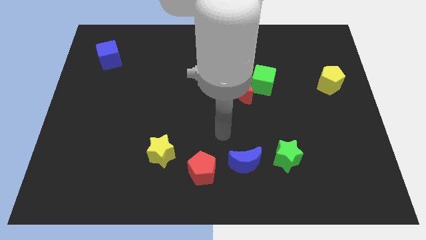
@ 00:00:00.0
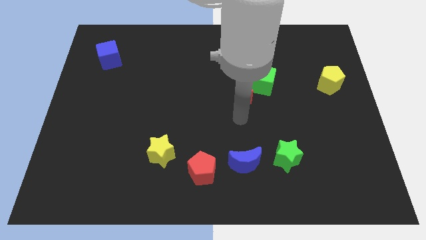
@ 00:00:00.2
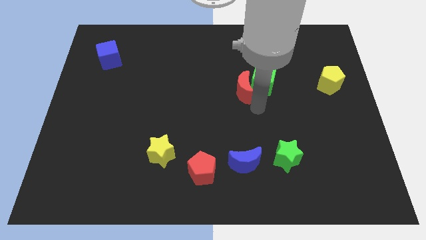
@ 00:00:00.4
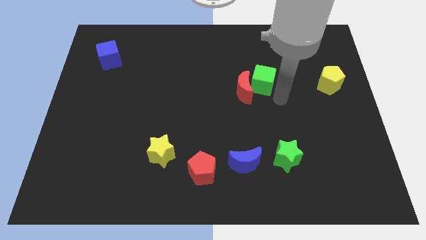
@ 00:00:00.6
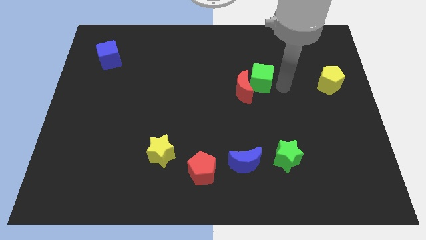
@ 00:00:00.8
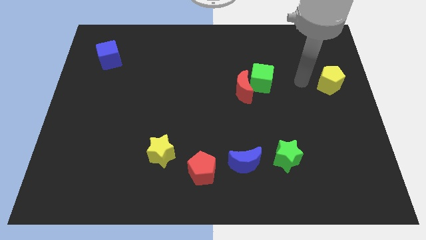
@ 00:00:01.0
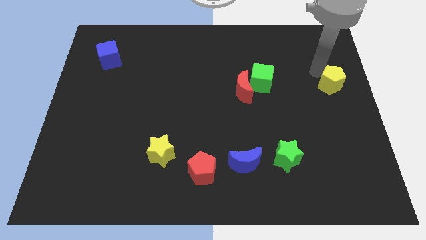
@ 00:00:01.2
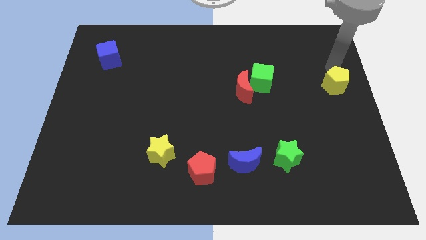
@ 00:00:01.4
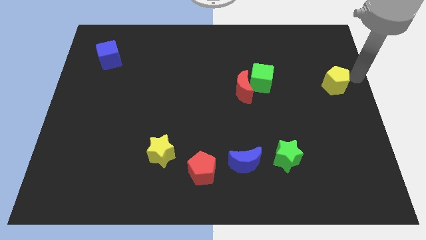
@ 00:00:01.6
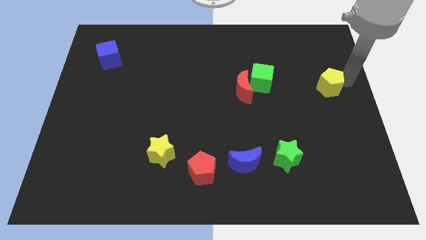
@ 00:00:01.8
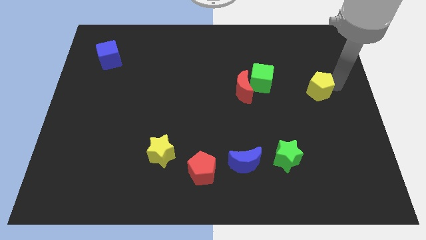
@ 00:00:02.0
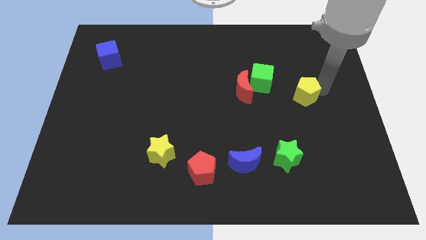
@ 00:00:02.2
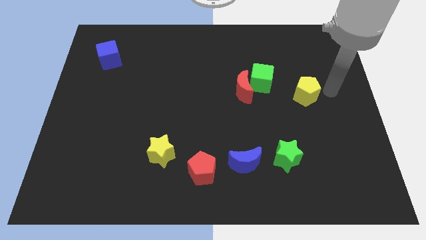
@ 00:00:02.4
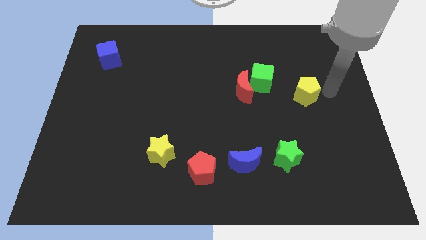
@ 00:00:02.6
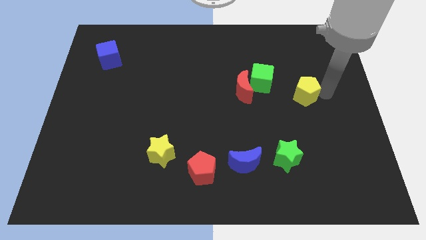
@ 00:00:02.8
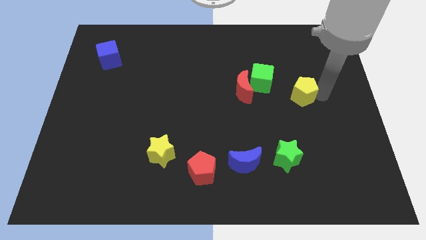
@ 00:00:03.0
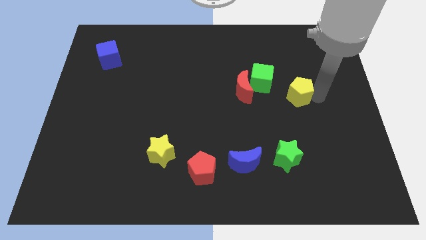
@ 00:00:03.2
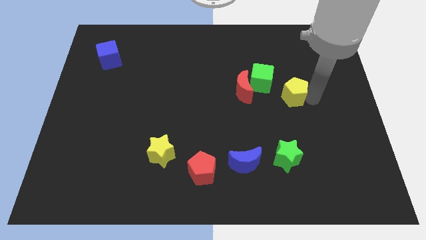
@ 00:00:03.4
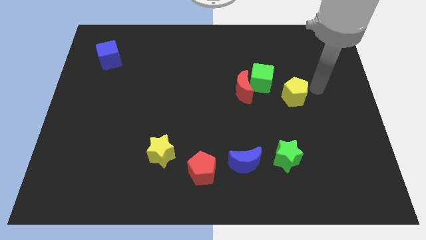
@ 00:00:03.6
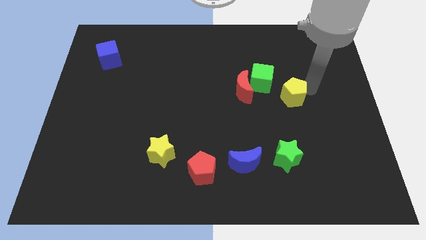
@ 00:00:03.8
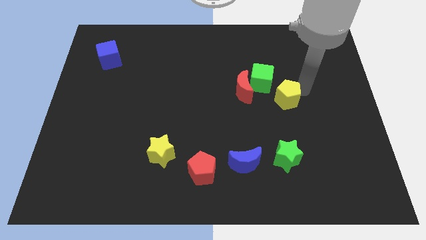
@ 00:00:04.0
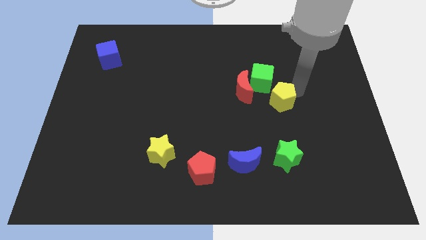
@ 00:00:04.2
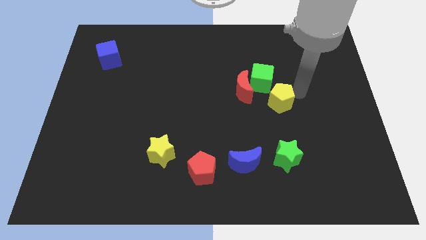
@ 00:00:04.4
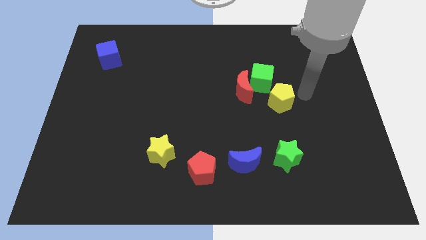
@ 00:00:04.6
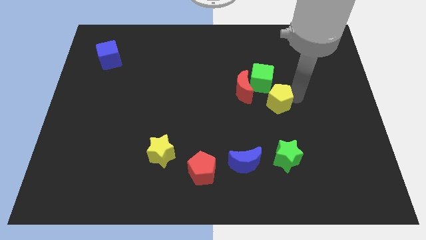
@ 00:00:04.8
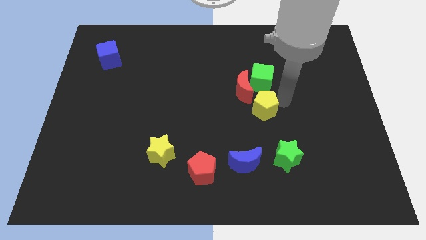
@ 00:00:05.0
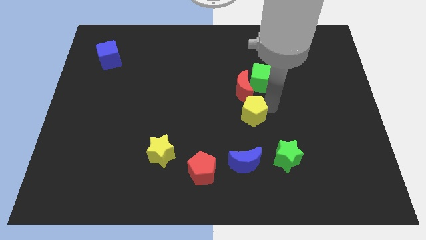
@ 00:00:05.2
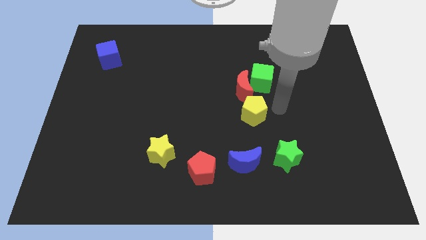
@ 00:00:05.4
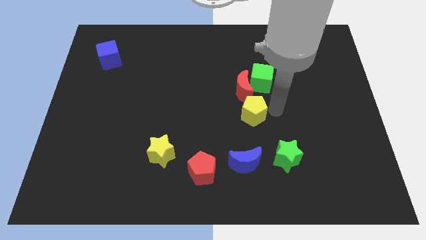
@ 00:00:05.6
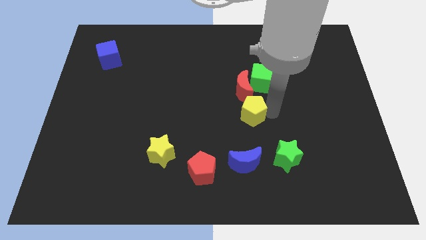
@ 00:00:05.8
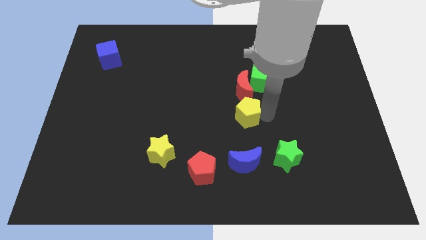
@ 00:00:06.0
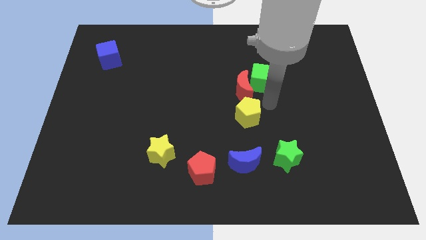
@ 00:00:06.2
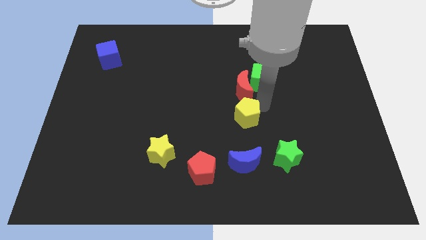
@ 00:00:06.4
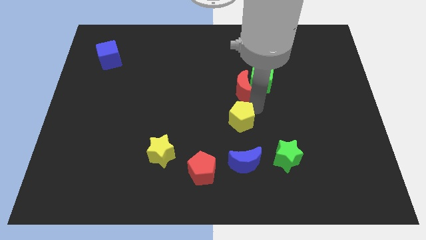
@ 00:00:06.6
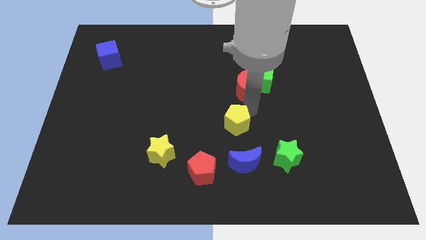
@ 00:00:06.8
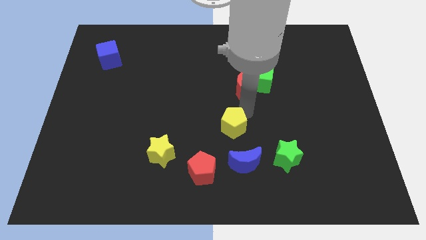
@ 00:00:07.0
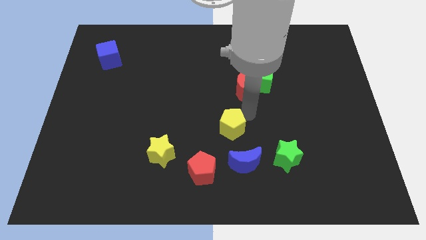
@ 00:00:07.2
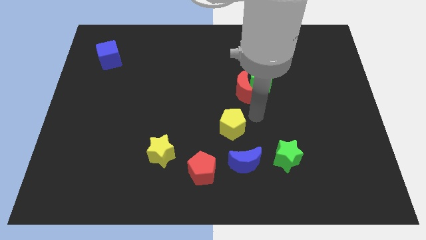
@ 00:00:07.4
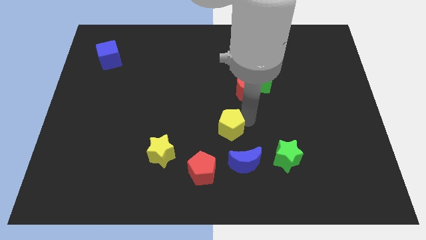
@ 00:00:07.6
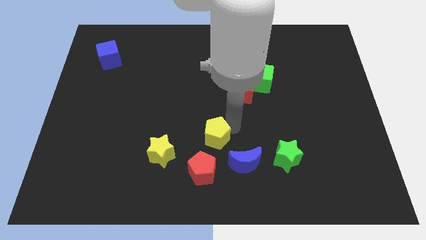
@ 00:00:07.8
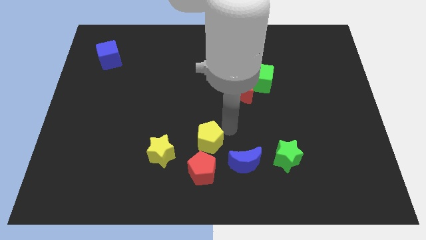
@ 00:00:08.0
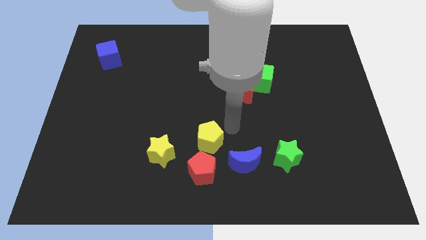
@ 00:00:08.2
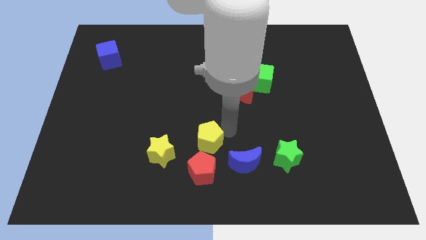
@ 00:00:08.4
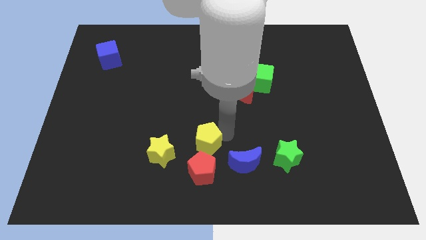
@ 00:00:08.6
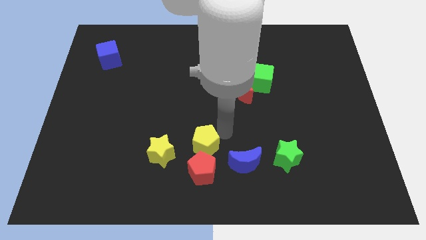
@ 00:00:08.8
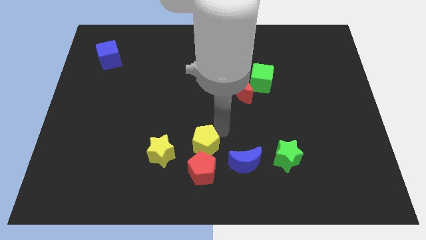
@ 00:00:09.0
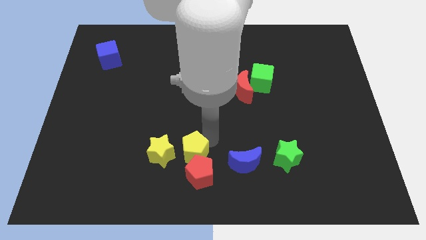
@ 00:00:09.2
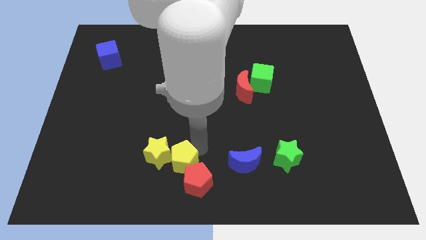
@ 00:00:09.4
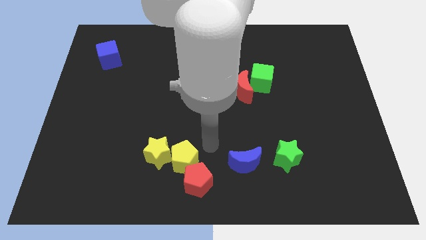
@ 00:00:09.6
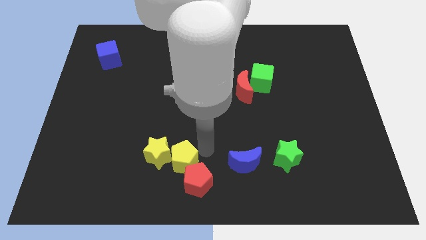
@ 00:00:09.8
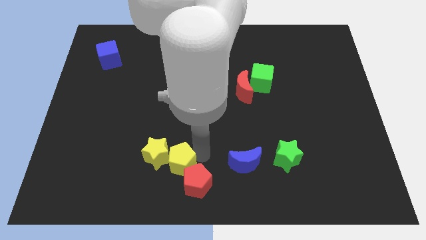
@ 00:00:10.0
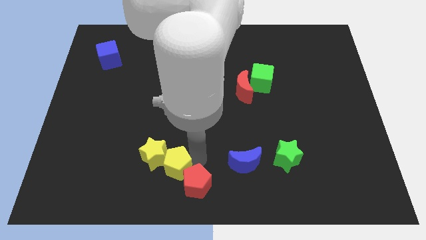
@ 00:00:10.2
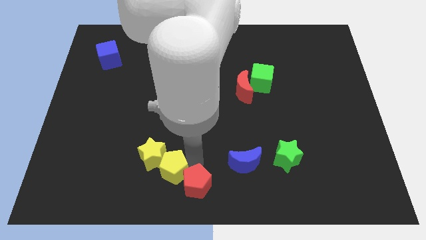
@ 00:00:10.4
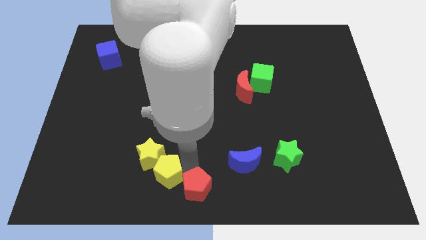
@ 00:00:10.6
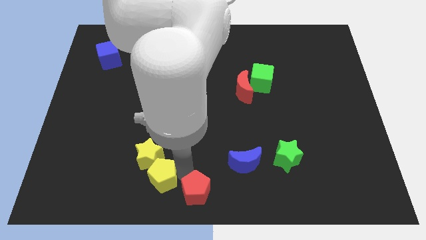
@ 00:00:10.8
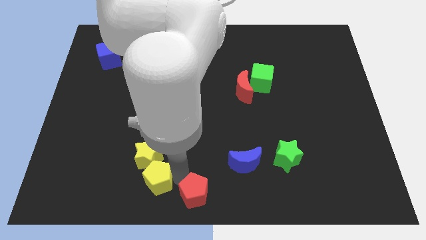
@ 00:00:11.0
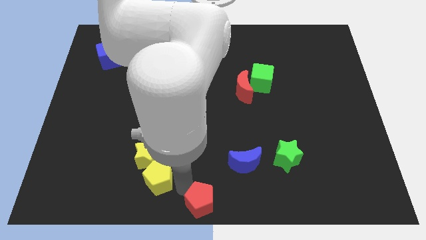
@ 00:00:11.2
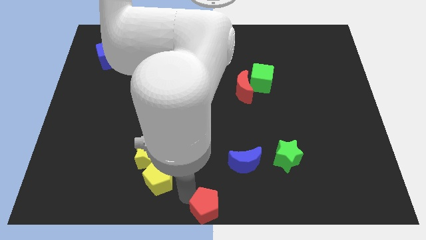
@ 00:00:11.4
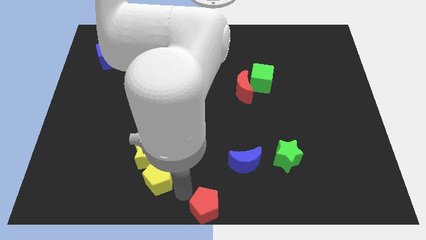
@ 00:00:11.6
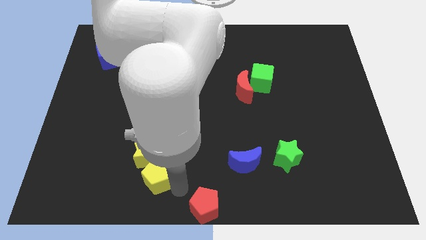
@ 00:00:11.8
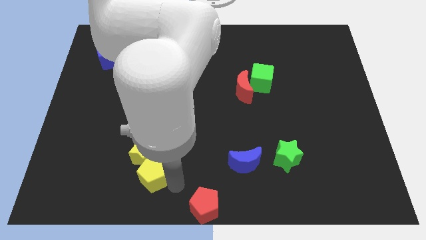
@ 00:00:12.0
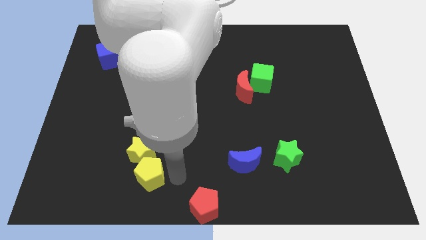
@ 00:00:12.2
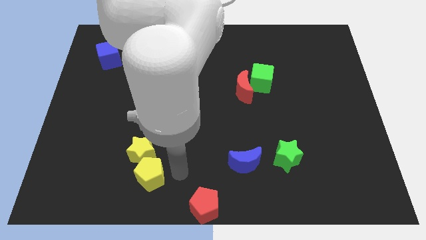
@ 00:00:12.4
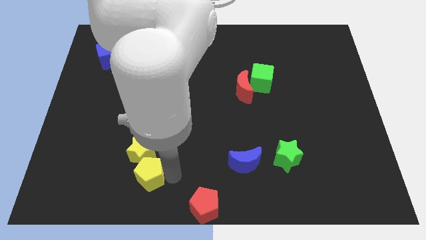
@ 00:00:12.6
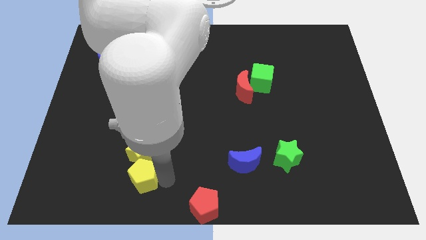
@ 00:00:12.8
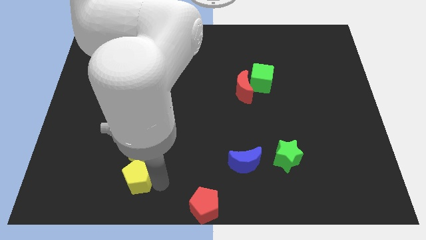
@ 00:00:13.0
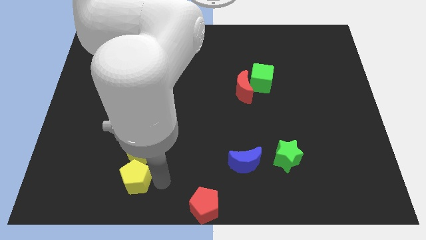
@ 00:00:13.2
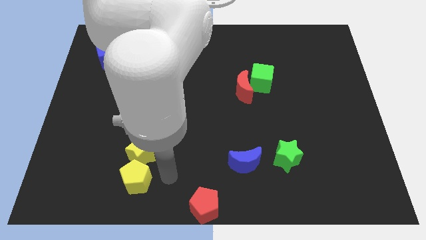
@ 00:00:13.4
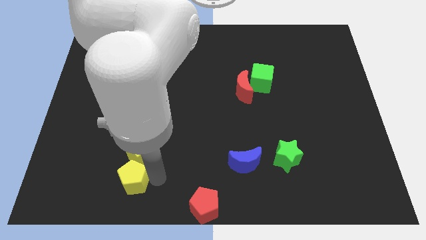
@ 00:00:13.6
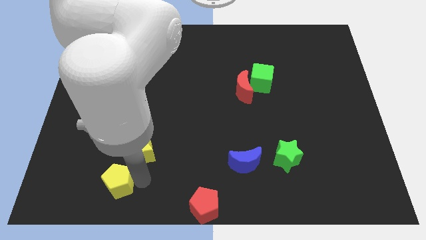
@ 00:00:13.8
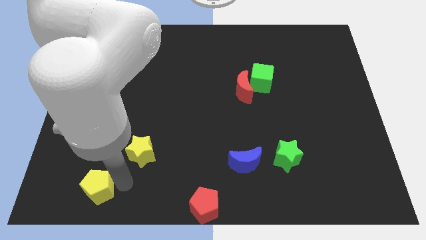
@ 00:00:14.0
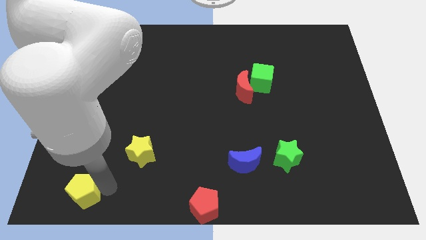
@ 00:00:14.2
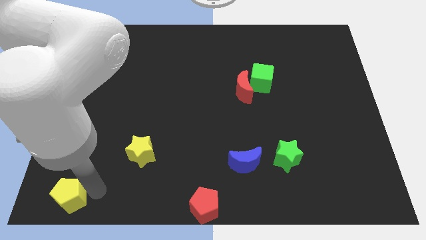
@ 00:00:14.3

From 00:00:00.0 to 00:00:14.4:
push the yellow pentagon to the bottom left of the board
